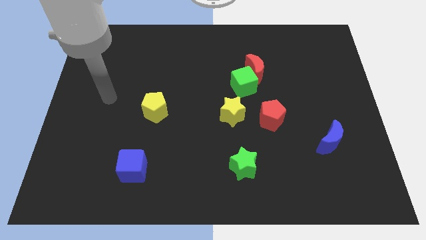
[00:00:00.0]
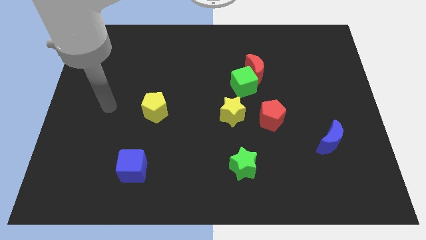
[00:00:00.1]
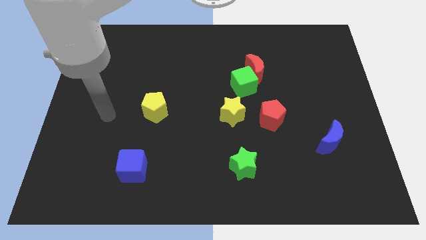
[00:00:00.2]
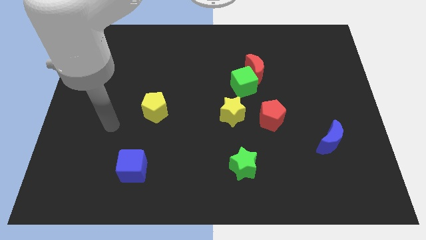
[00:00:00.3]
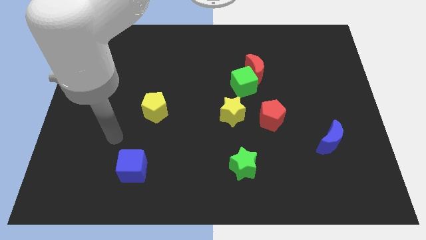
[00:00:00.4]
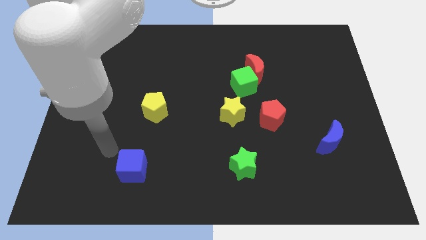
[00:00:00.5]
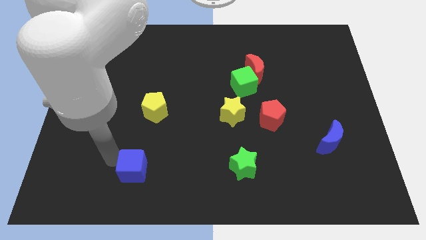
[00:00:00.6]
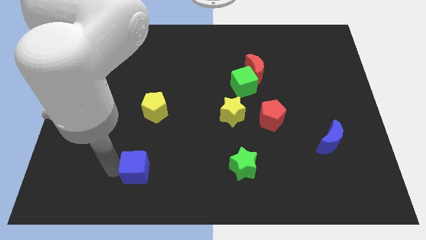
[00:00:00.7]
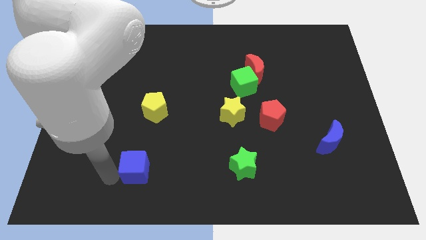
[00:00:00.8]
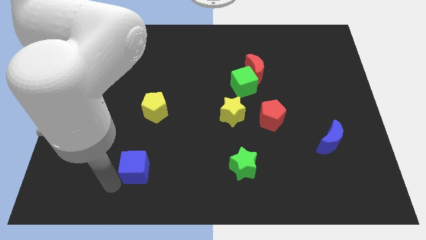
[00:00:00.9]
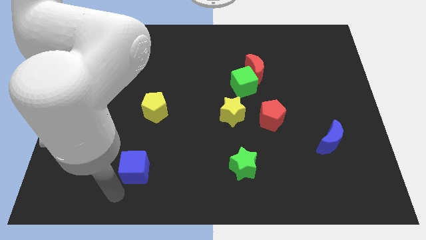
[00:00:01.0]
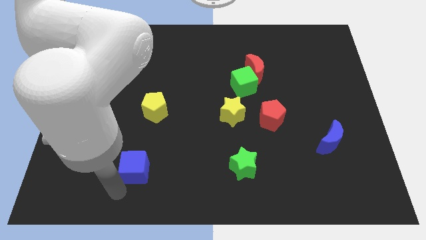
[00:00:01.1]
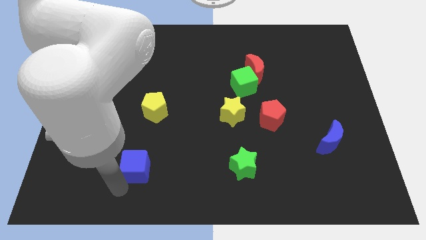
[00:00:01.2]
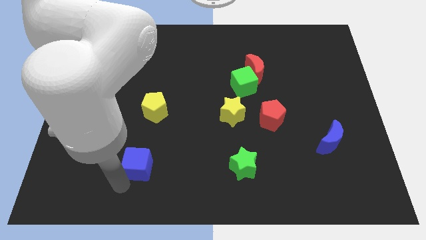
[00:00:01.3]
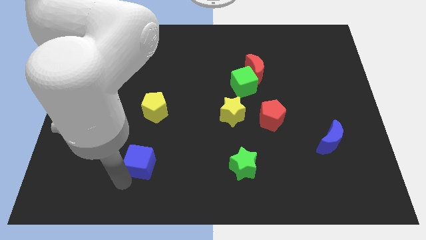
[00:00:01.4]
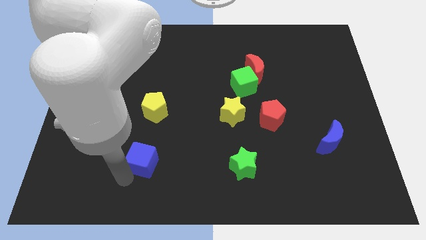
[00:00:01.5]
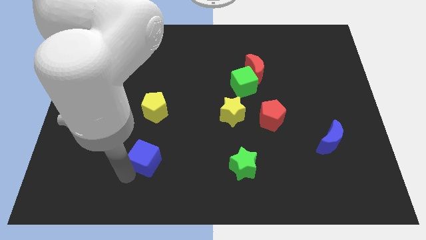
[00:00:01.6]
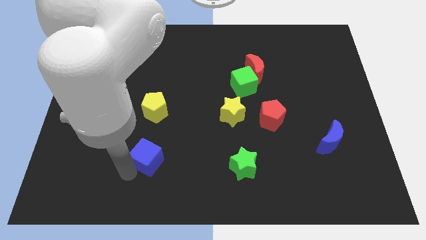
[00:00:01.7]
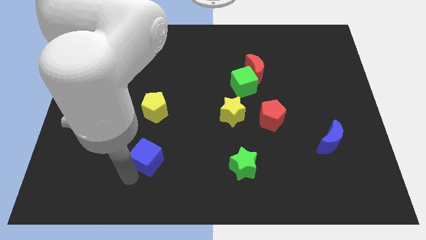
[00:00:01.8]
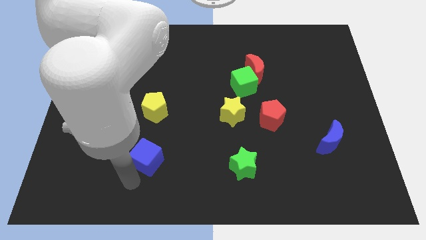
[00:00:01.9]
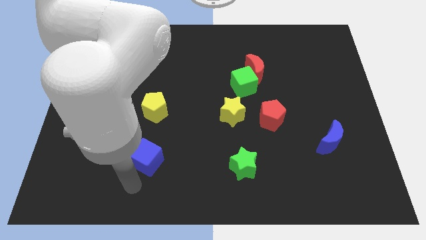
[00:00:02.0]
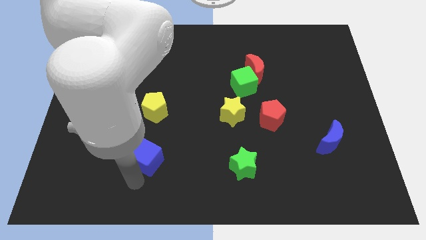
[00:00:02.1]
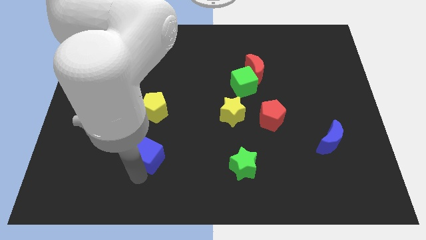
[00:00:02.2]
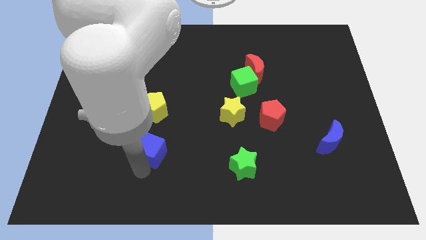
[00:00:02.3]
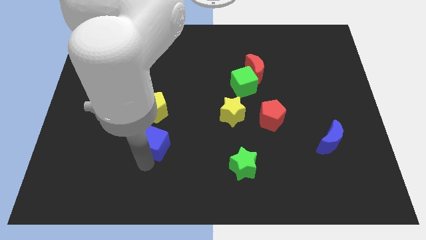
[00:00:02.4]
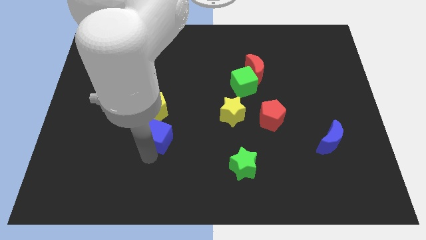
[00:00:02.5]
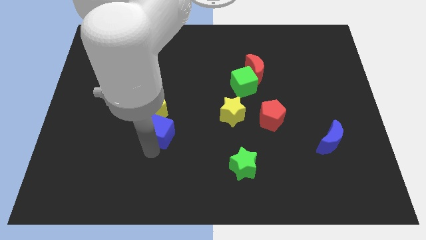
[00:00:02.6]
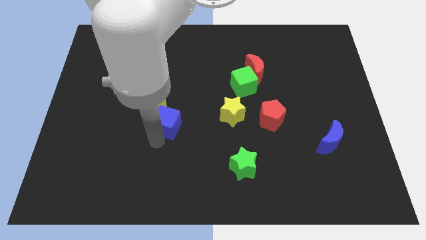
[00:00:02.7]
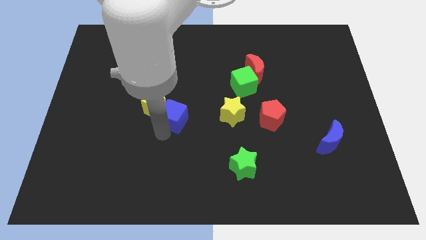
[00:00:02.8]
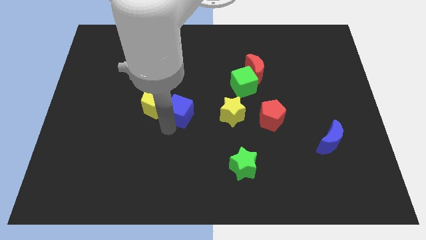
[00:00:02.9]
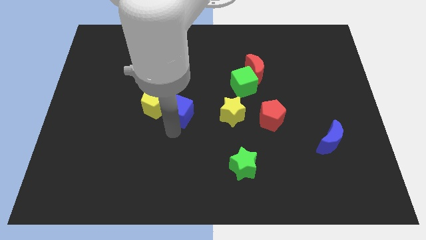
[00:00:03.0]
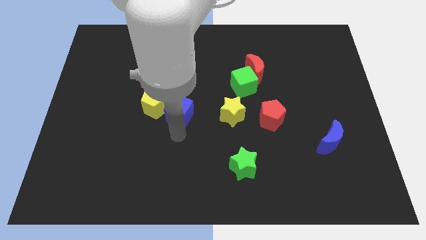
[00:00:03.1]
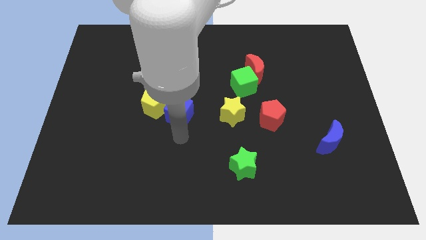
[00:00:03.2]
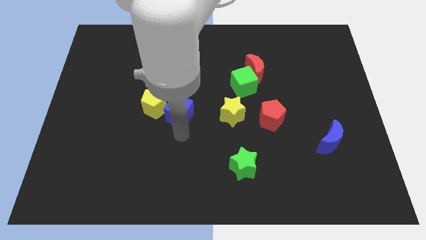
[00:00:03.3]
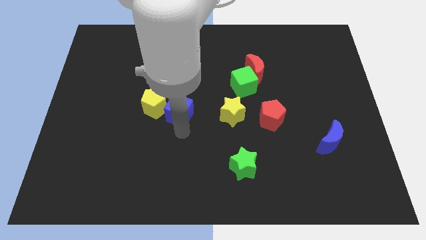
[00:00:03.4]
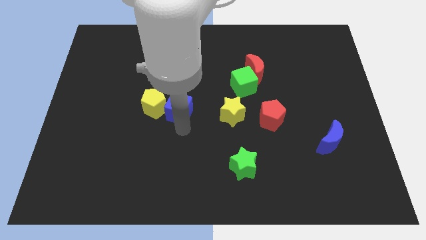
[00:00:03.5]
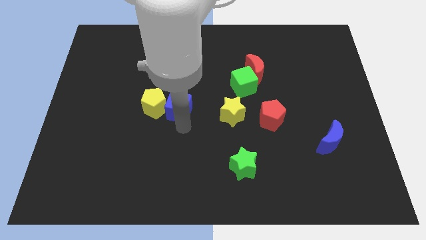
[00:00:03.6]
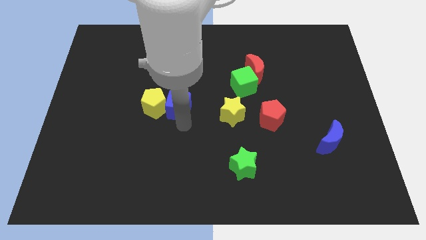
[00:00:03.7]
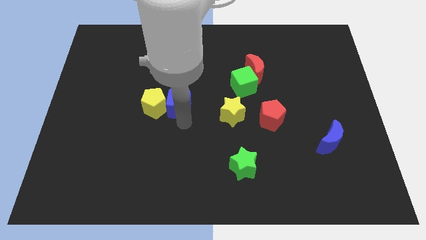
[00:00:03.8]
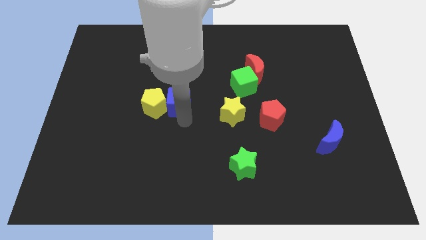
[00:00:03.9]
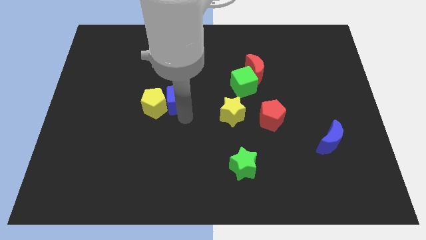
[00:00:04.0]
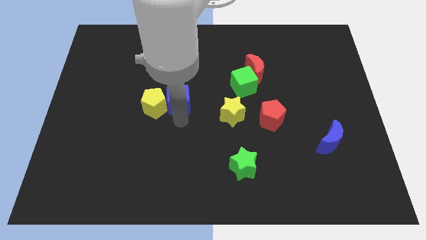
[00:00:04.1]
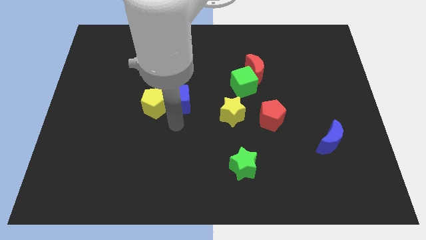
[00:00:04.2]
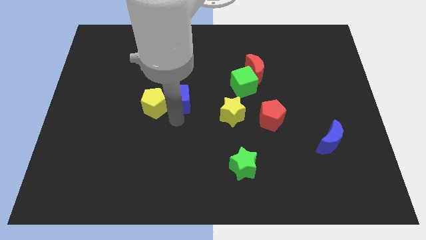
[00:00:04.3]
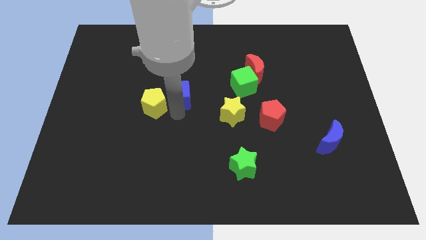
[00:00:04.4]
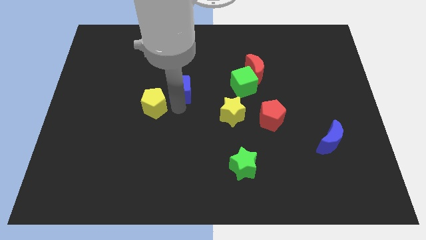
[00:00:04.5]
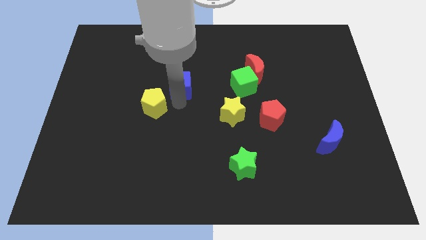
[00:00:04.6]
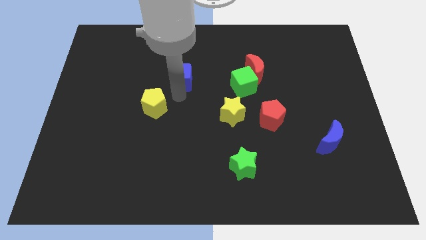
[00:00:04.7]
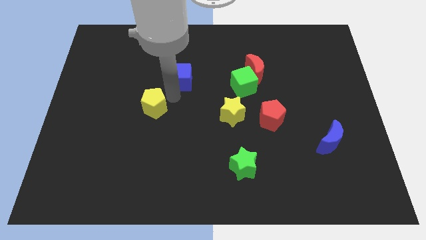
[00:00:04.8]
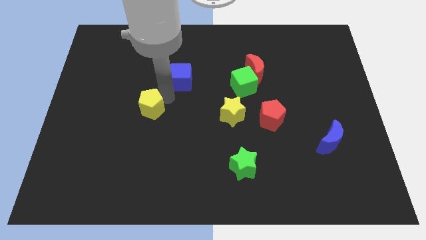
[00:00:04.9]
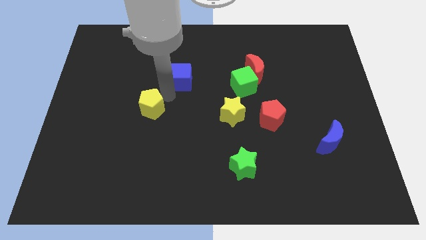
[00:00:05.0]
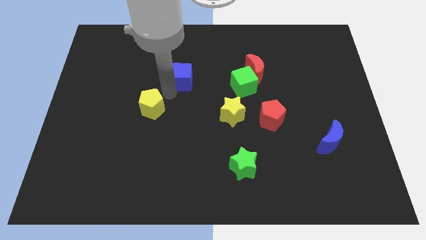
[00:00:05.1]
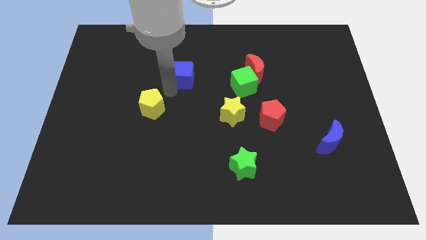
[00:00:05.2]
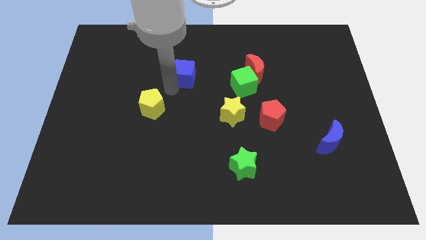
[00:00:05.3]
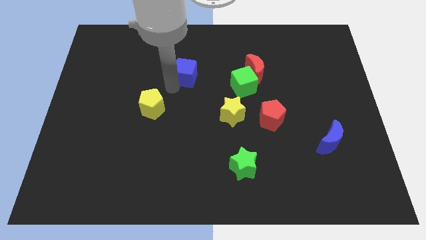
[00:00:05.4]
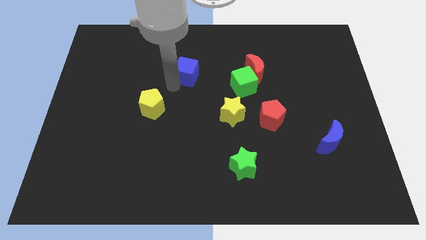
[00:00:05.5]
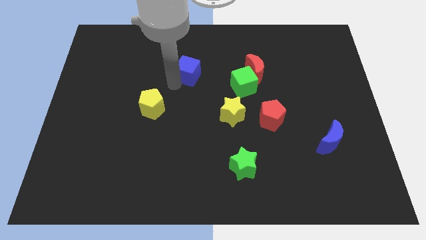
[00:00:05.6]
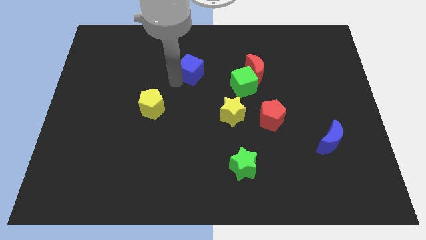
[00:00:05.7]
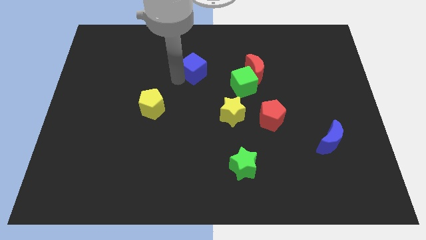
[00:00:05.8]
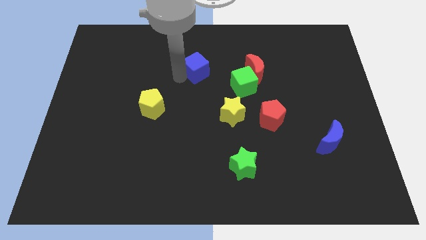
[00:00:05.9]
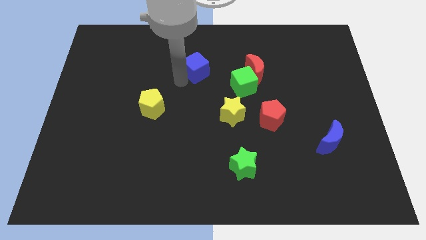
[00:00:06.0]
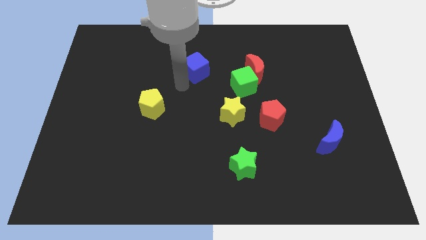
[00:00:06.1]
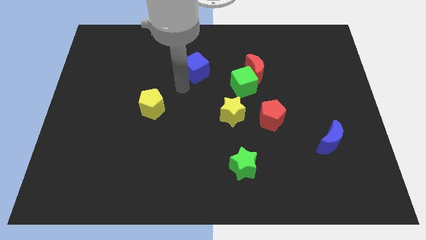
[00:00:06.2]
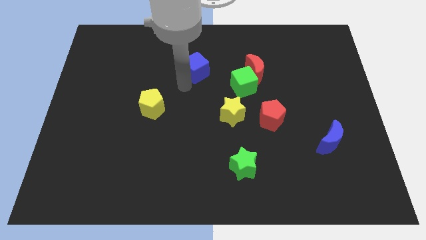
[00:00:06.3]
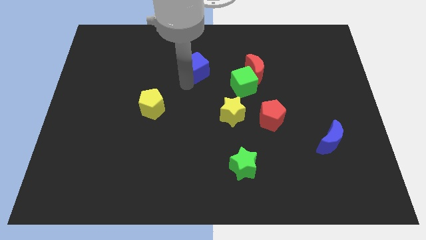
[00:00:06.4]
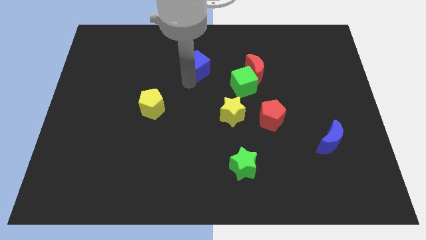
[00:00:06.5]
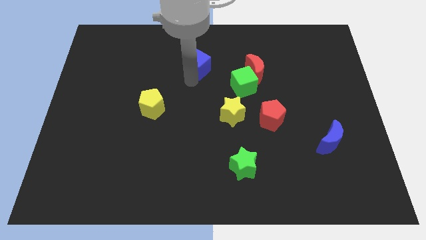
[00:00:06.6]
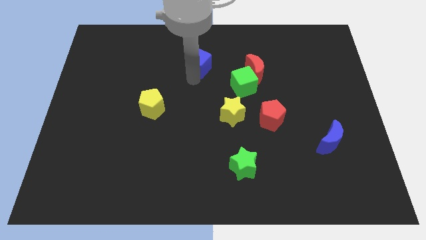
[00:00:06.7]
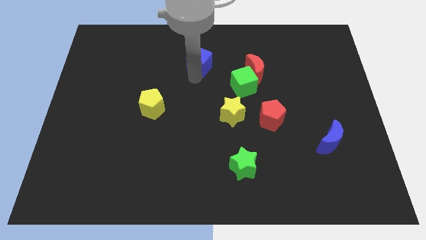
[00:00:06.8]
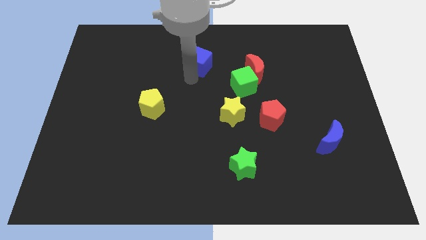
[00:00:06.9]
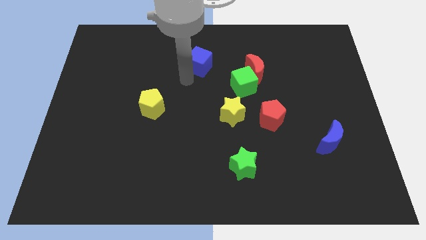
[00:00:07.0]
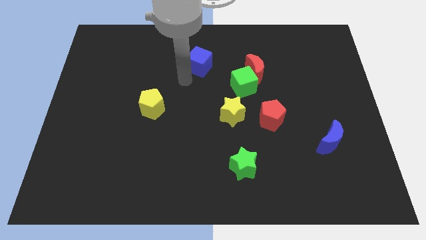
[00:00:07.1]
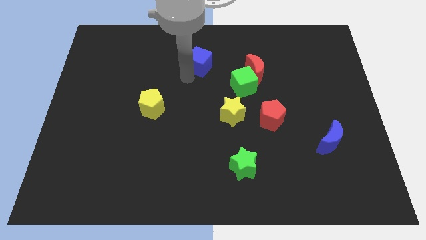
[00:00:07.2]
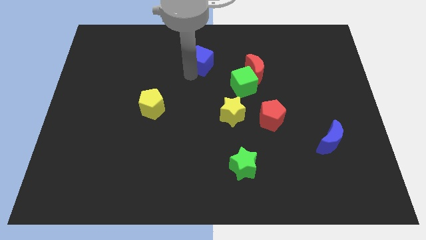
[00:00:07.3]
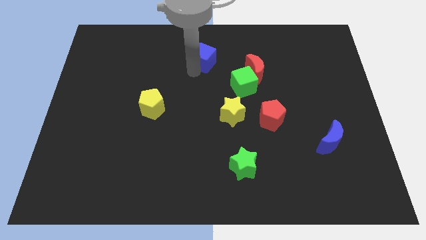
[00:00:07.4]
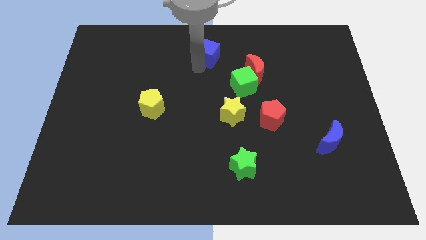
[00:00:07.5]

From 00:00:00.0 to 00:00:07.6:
slide the blue cube to the towards your base
